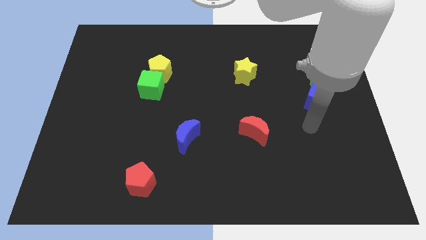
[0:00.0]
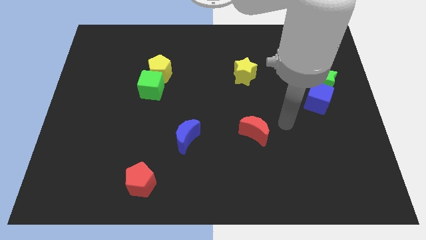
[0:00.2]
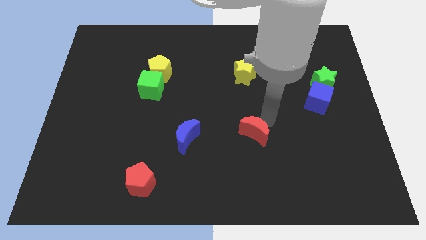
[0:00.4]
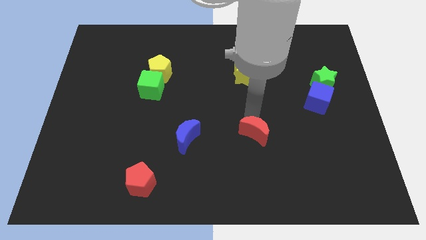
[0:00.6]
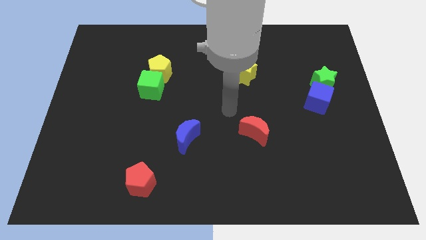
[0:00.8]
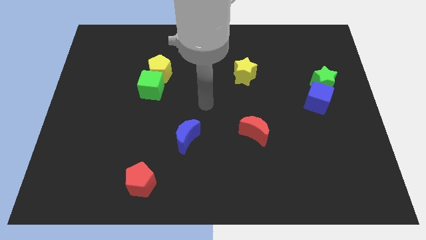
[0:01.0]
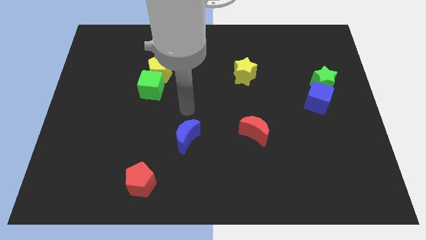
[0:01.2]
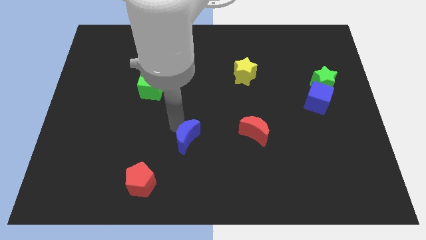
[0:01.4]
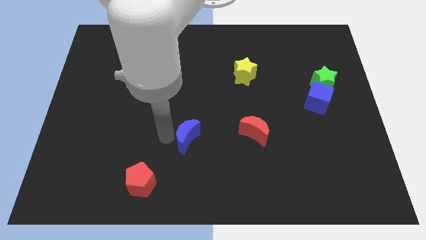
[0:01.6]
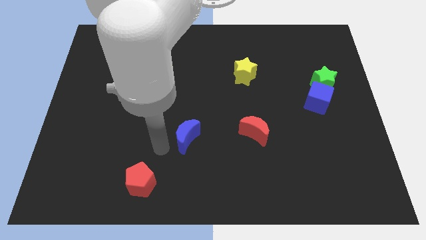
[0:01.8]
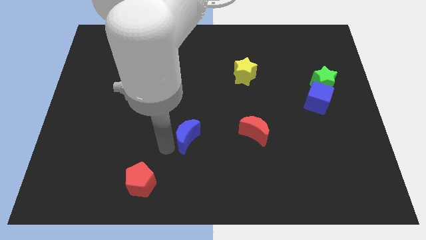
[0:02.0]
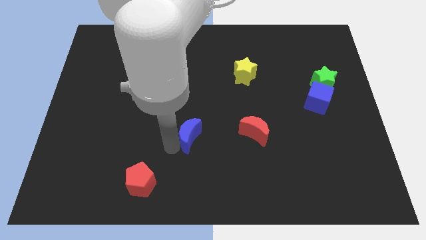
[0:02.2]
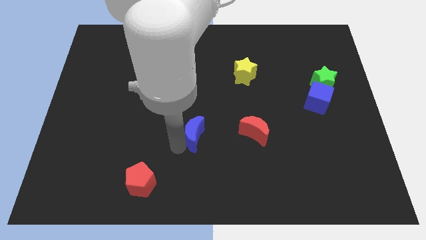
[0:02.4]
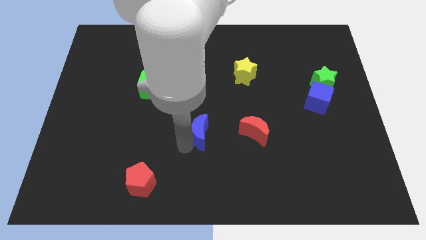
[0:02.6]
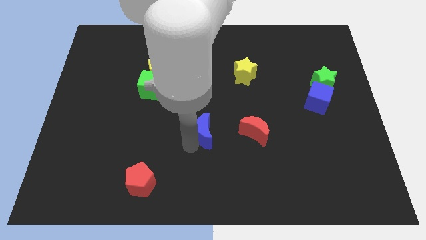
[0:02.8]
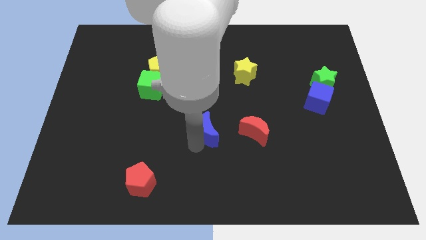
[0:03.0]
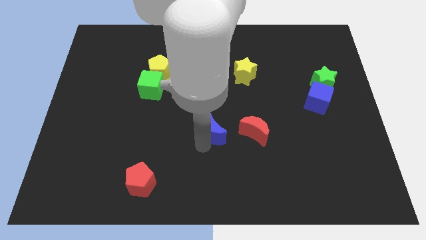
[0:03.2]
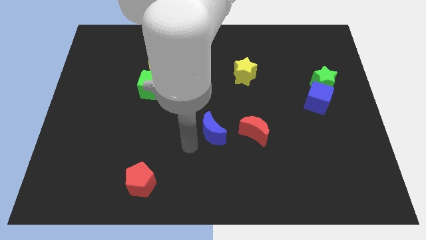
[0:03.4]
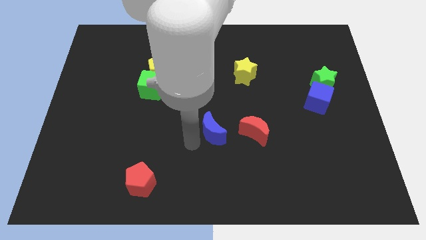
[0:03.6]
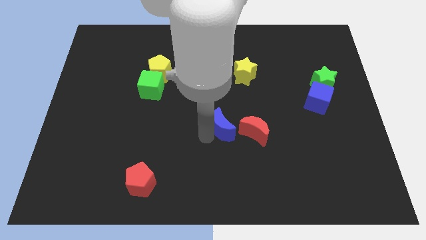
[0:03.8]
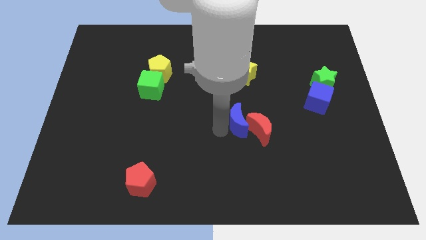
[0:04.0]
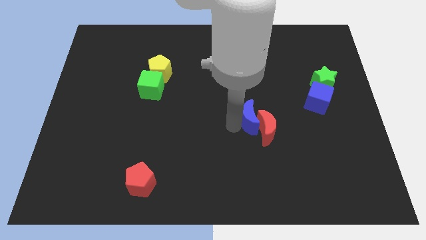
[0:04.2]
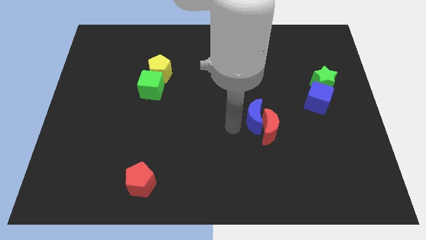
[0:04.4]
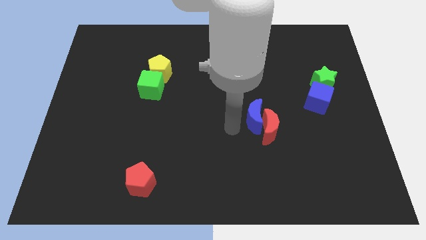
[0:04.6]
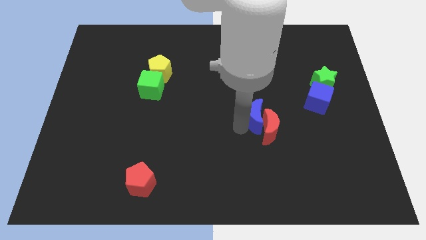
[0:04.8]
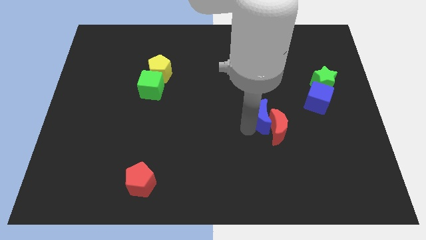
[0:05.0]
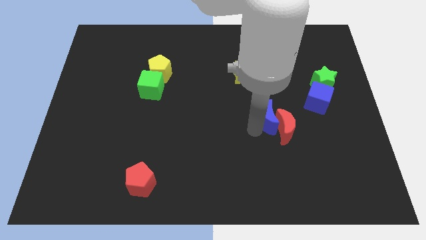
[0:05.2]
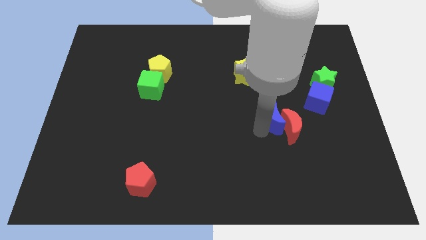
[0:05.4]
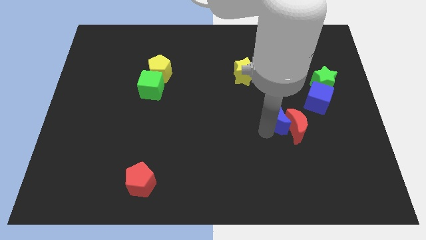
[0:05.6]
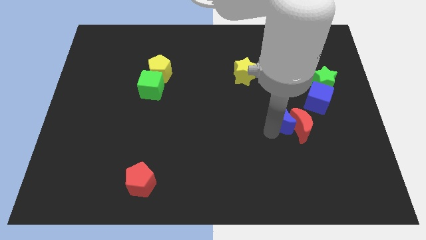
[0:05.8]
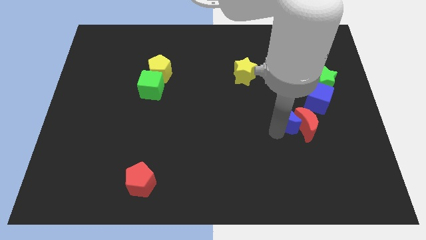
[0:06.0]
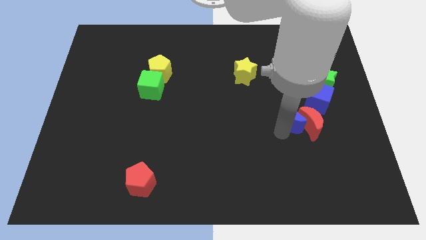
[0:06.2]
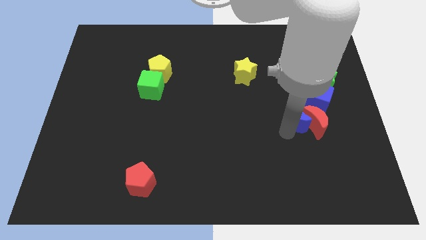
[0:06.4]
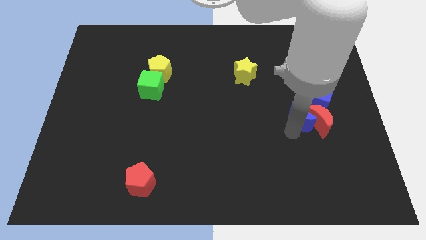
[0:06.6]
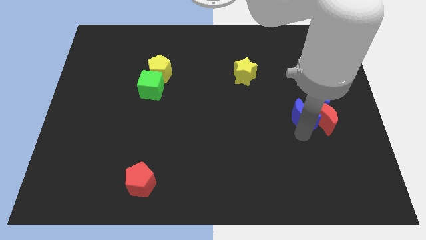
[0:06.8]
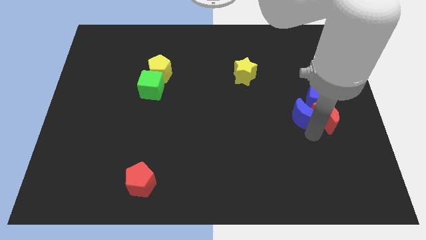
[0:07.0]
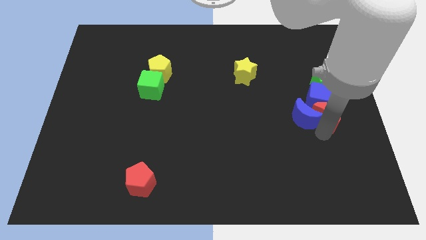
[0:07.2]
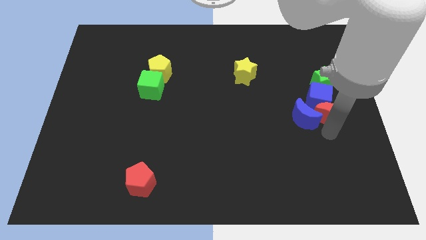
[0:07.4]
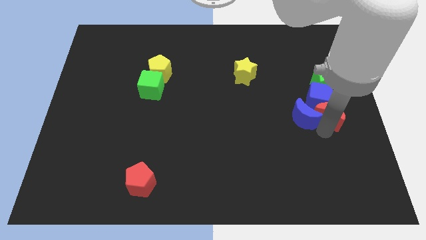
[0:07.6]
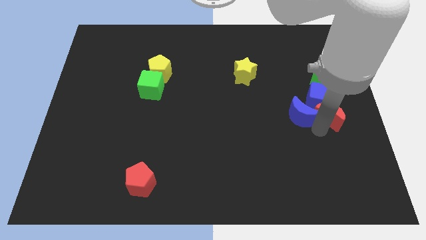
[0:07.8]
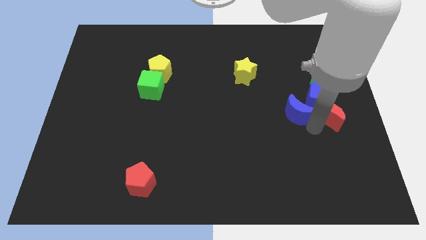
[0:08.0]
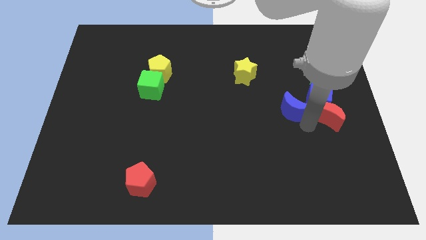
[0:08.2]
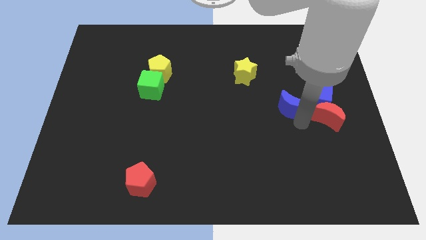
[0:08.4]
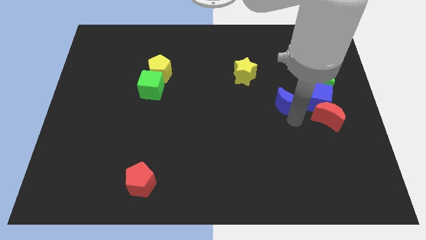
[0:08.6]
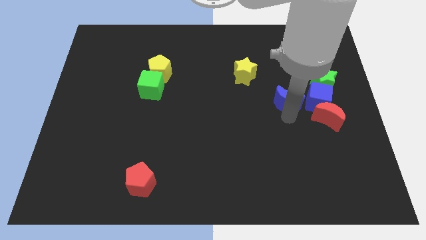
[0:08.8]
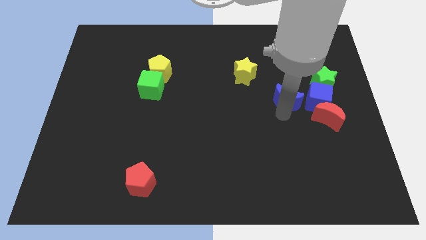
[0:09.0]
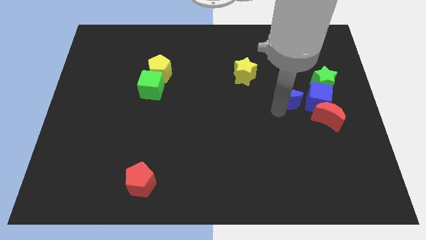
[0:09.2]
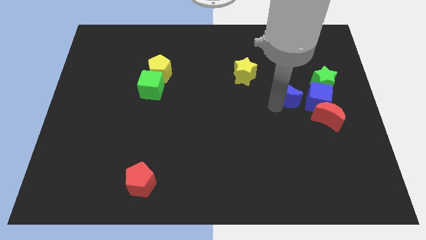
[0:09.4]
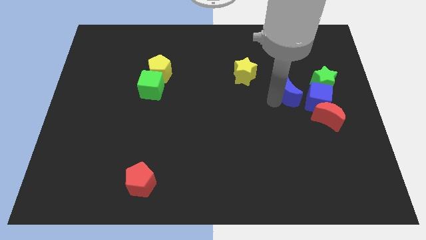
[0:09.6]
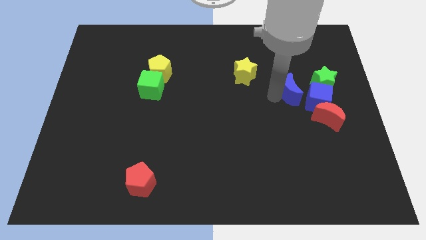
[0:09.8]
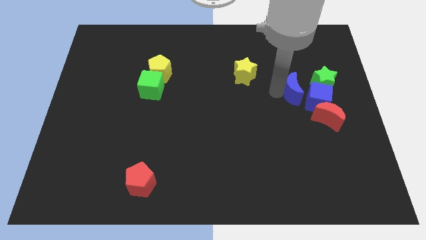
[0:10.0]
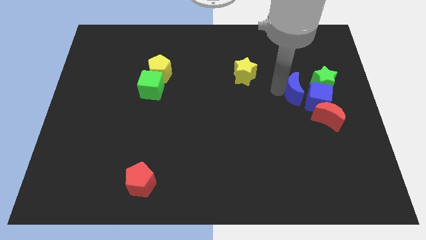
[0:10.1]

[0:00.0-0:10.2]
push the blue moon towards the blue cube

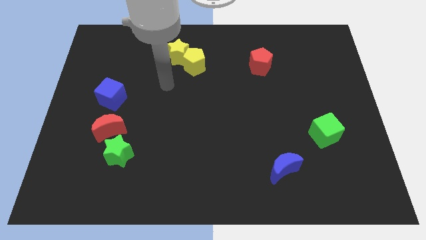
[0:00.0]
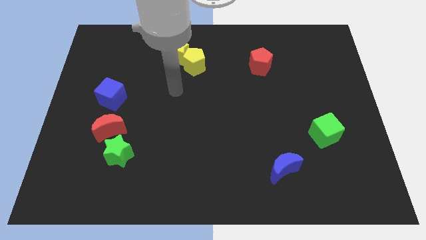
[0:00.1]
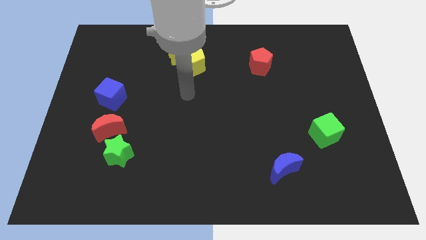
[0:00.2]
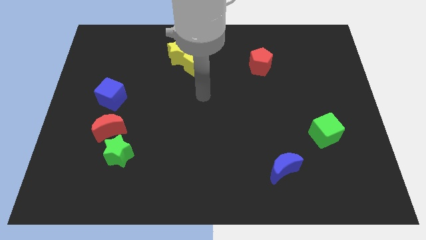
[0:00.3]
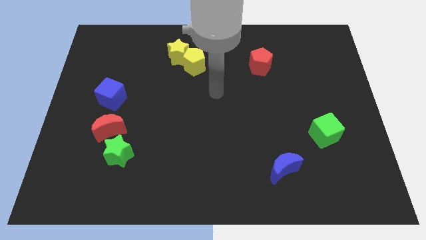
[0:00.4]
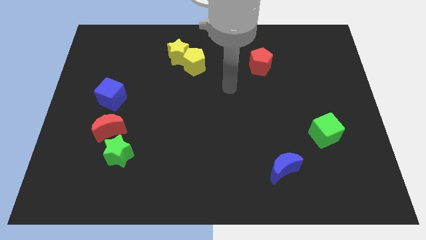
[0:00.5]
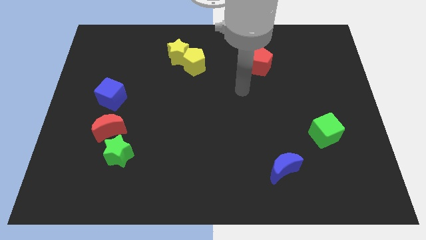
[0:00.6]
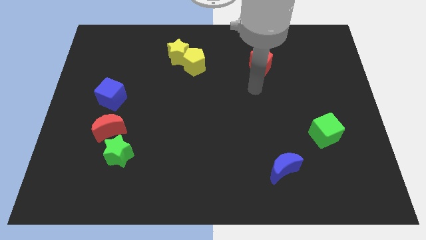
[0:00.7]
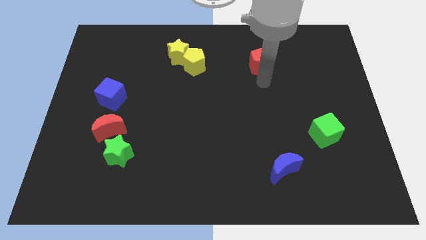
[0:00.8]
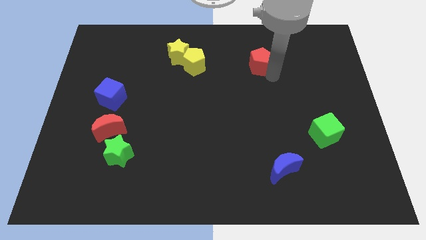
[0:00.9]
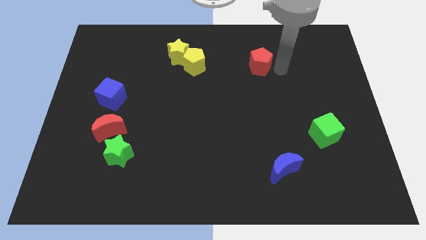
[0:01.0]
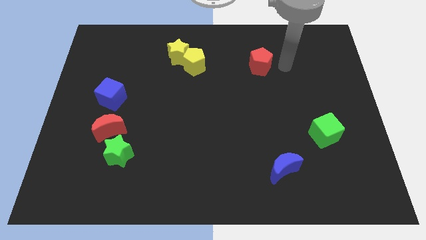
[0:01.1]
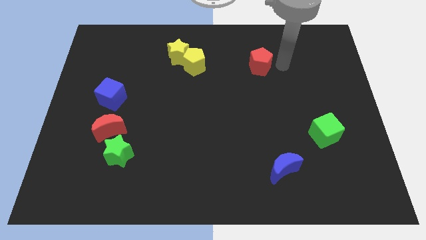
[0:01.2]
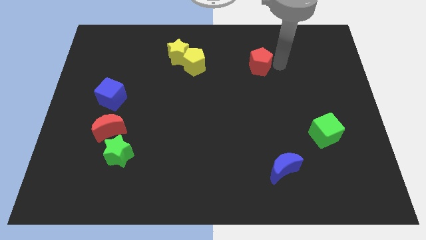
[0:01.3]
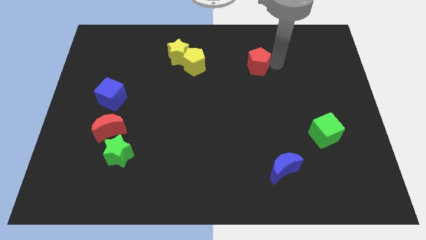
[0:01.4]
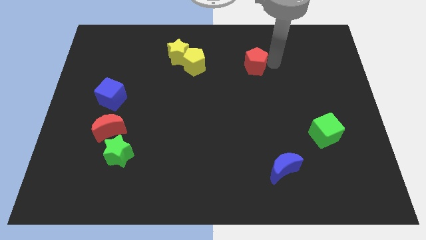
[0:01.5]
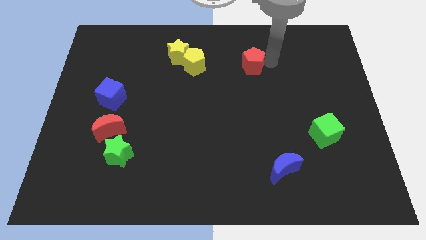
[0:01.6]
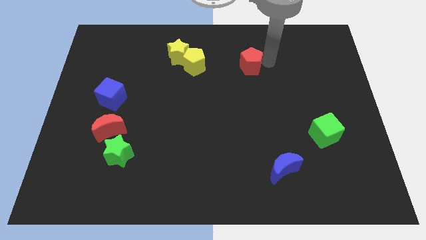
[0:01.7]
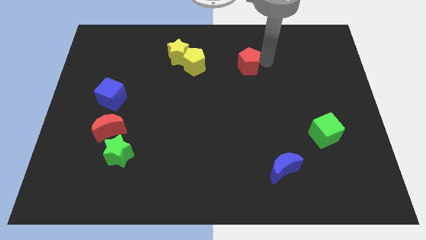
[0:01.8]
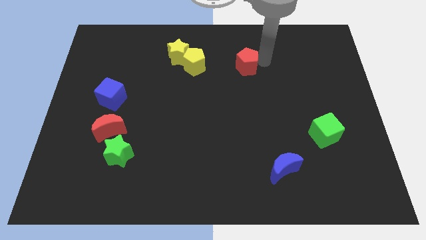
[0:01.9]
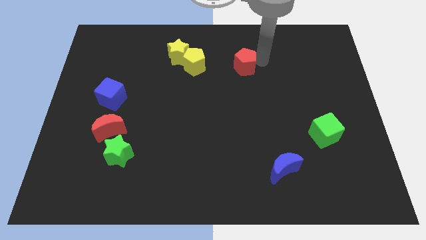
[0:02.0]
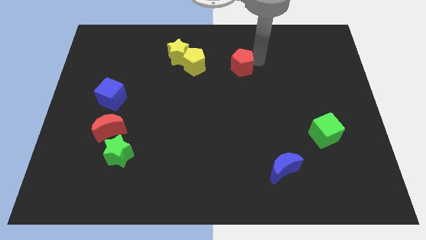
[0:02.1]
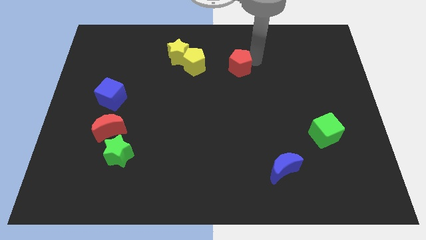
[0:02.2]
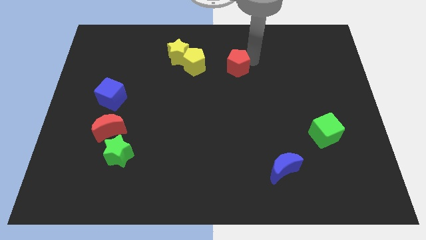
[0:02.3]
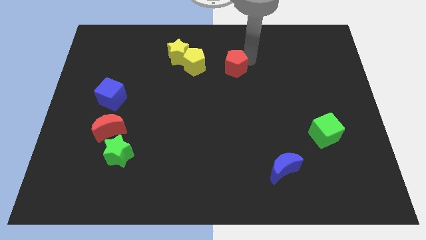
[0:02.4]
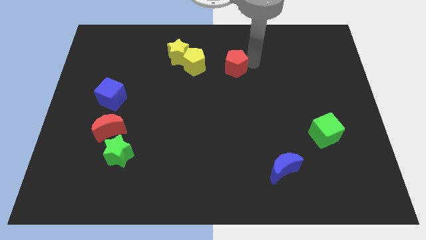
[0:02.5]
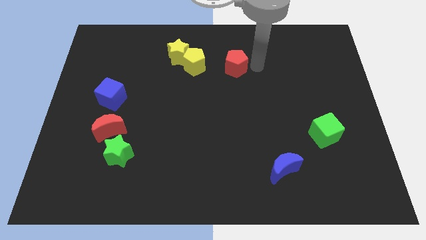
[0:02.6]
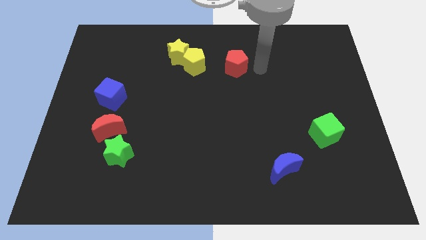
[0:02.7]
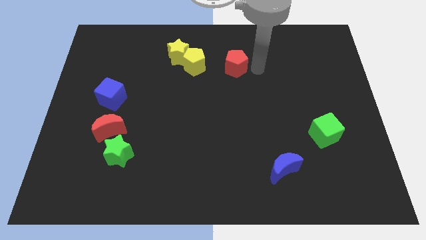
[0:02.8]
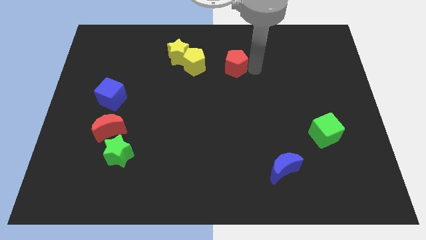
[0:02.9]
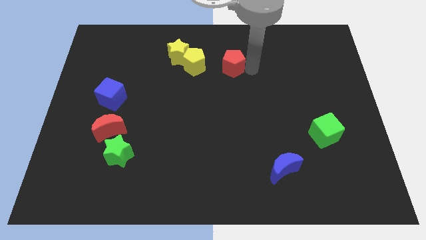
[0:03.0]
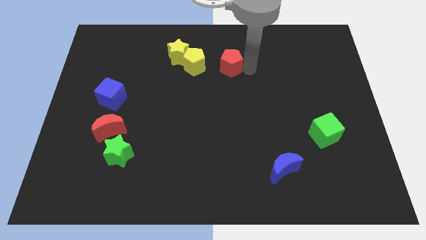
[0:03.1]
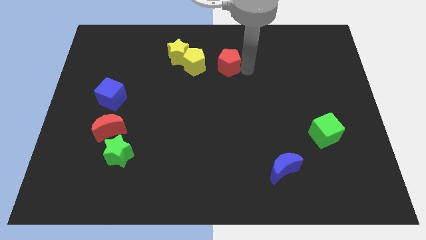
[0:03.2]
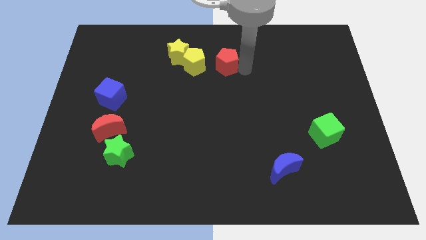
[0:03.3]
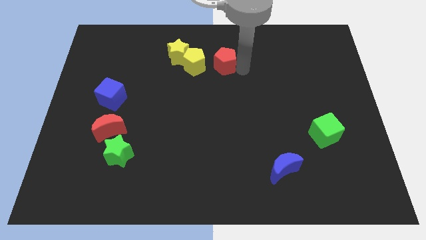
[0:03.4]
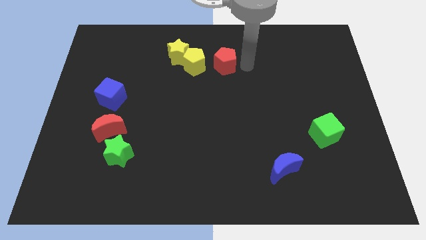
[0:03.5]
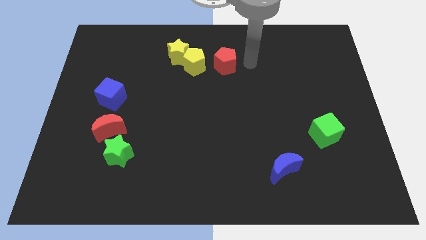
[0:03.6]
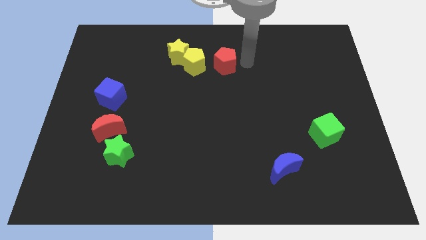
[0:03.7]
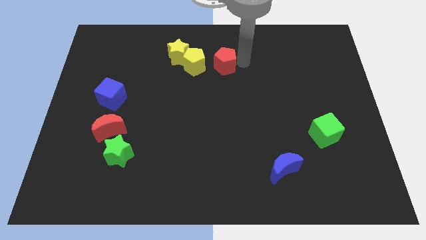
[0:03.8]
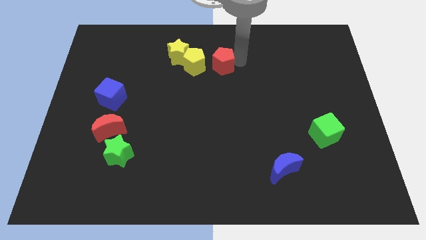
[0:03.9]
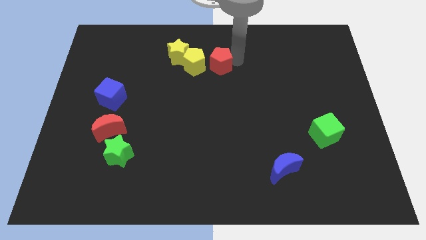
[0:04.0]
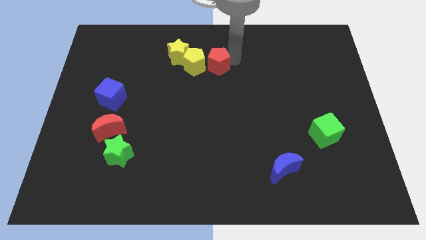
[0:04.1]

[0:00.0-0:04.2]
push the red pentagon close to the yellow pentagon
